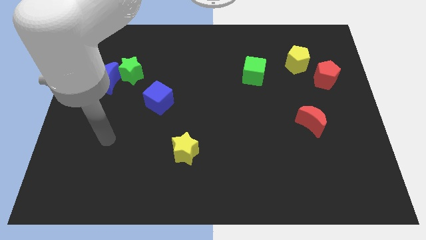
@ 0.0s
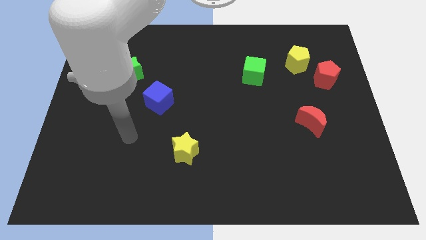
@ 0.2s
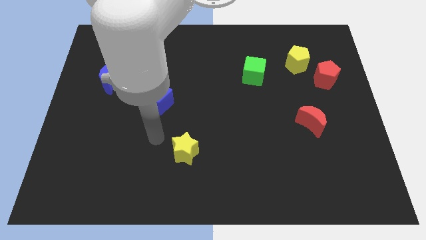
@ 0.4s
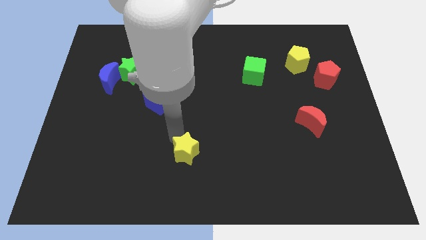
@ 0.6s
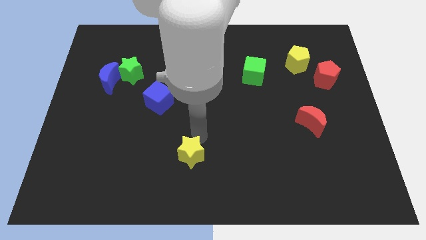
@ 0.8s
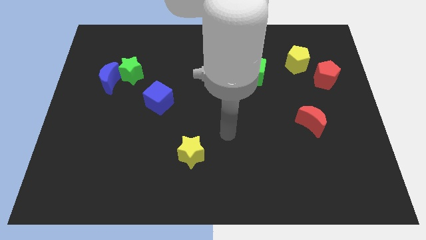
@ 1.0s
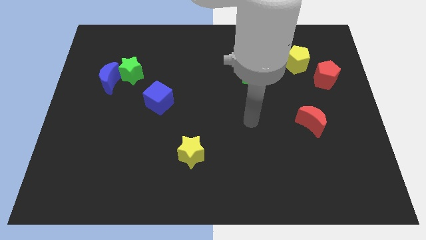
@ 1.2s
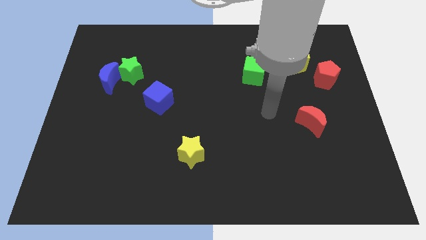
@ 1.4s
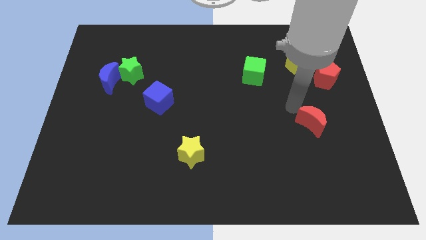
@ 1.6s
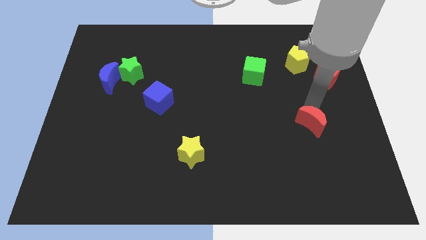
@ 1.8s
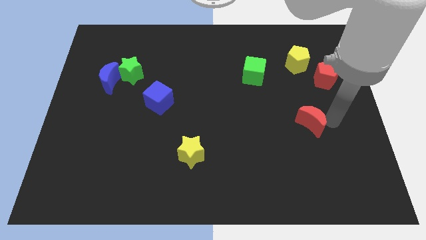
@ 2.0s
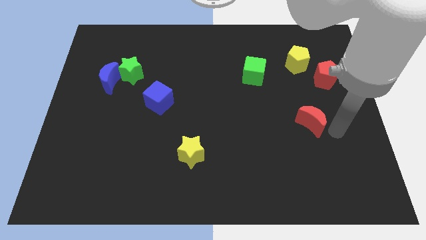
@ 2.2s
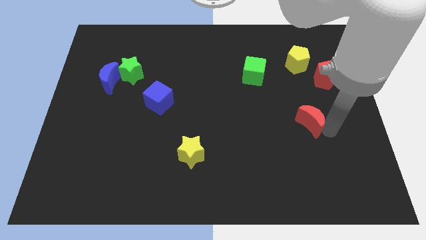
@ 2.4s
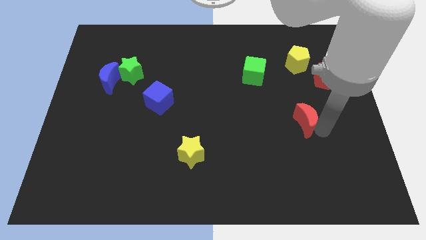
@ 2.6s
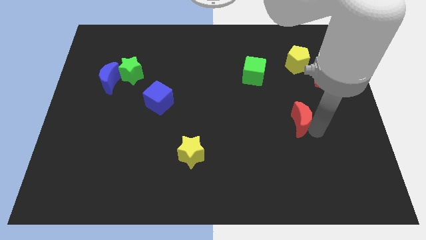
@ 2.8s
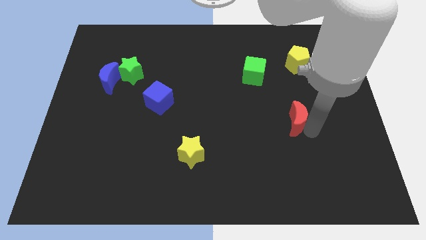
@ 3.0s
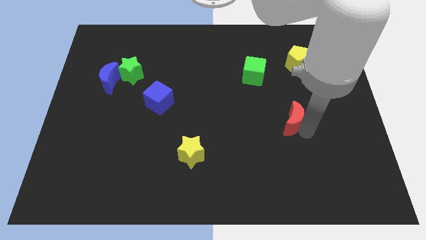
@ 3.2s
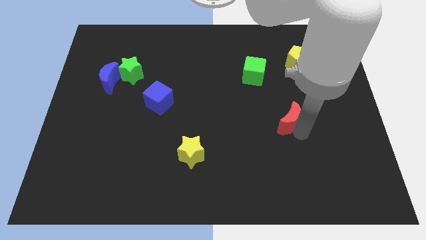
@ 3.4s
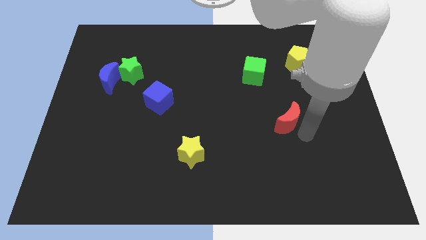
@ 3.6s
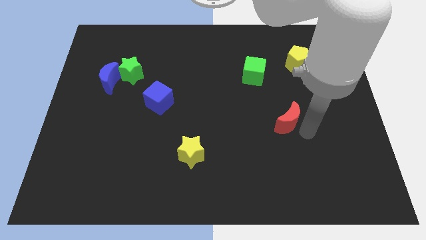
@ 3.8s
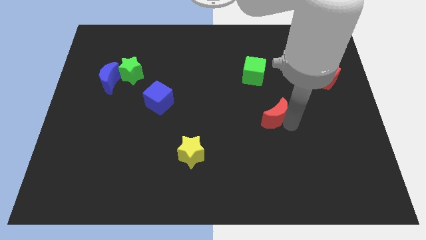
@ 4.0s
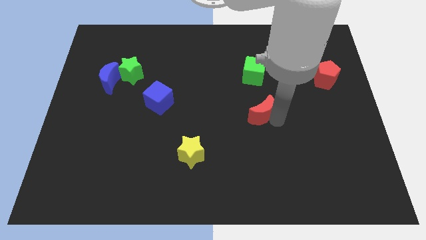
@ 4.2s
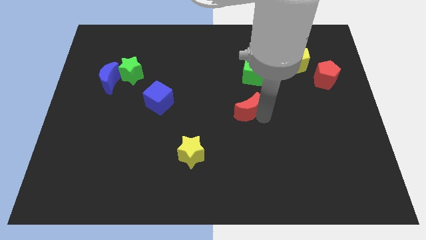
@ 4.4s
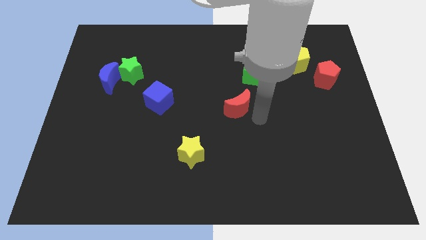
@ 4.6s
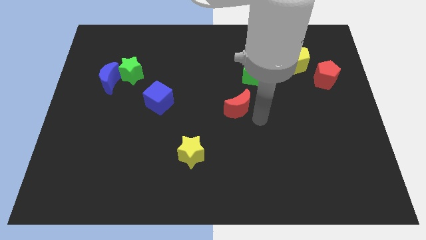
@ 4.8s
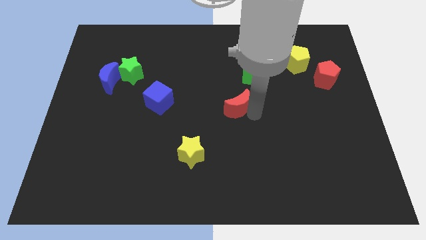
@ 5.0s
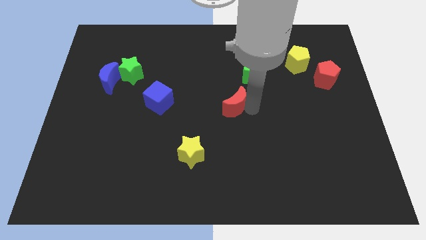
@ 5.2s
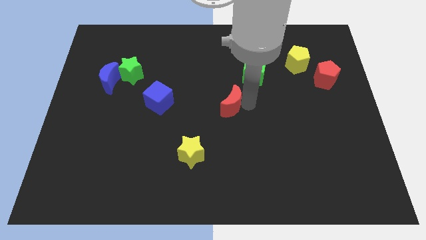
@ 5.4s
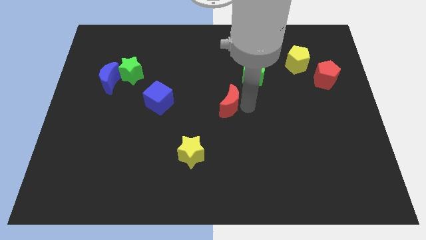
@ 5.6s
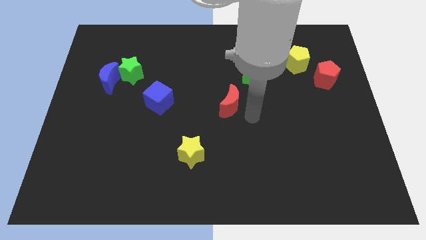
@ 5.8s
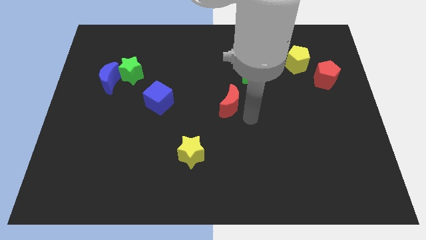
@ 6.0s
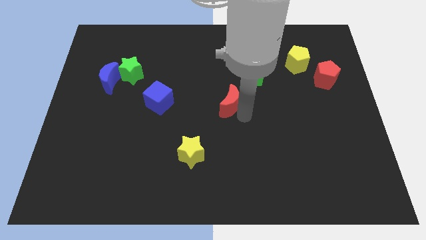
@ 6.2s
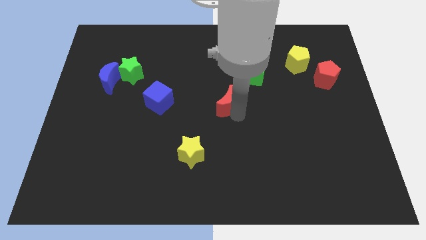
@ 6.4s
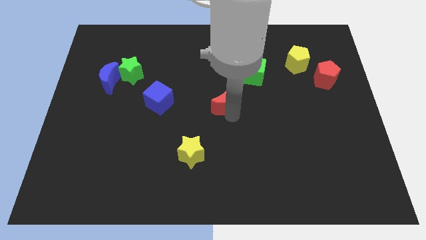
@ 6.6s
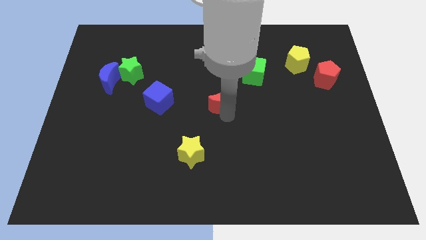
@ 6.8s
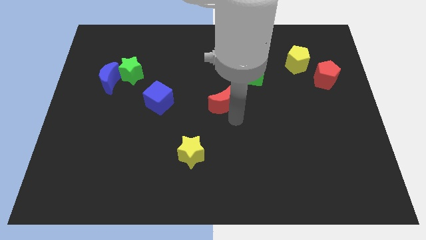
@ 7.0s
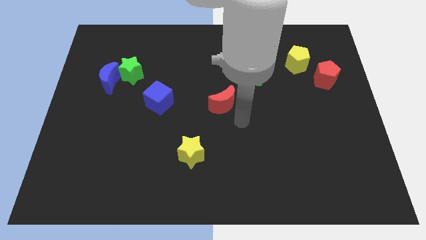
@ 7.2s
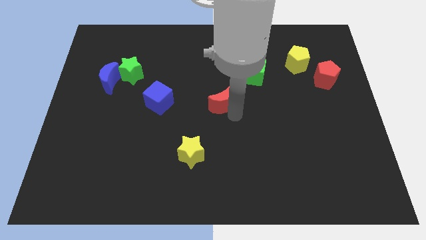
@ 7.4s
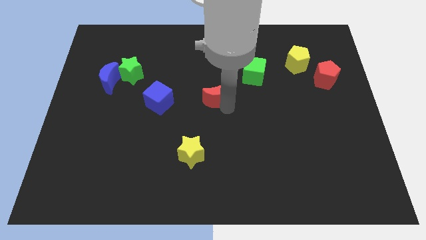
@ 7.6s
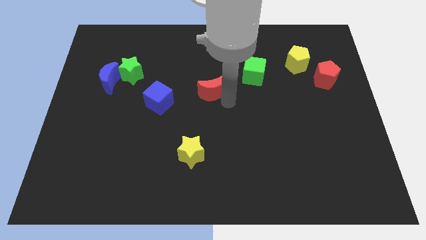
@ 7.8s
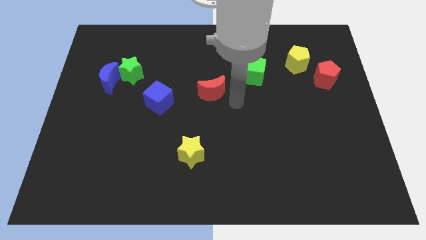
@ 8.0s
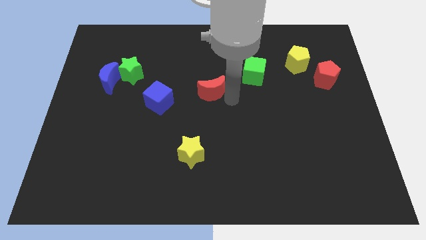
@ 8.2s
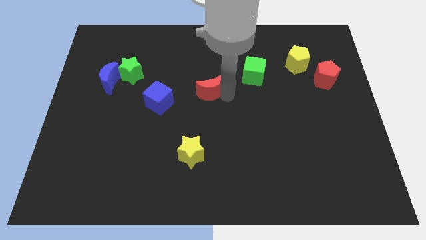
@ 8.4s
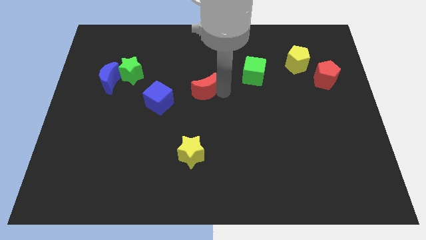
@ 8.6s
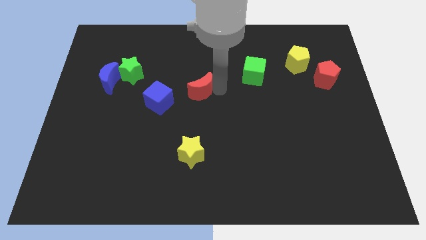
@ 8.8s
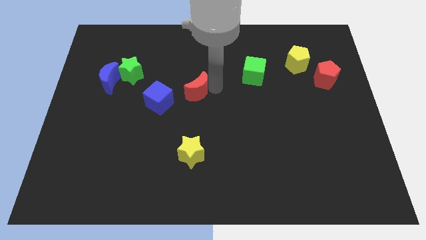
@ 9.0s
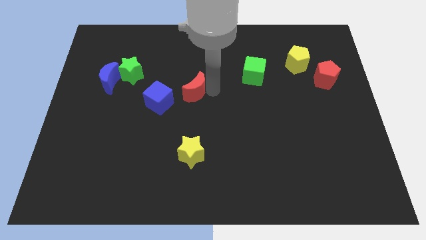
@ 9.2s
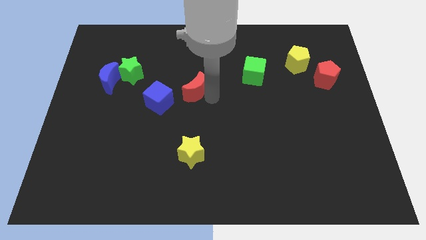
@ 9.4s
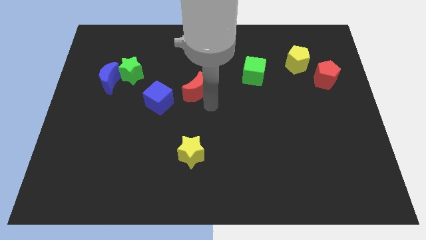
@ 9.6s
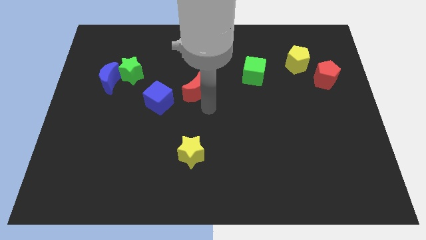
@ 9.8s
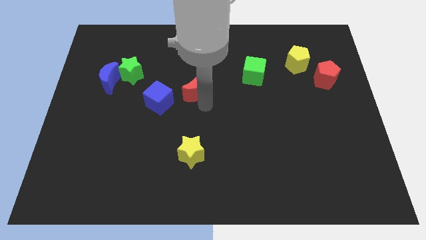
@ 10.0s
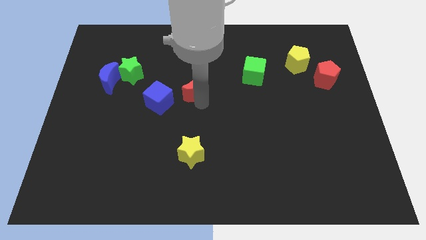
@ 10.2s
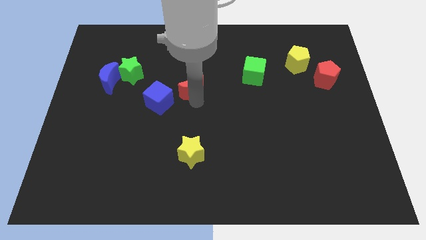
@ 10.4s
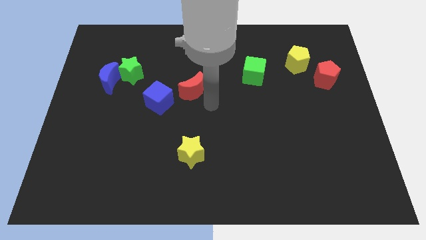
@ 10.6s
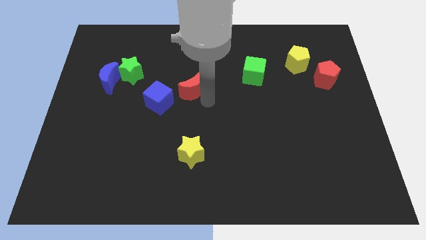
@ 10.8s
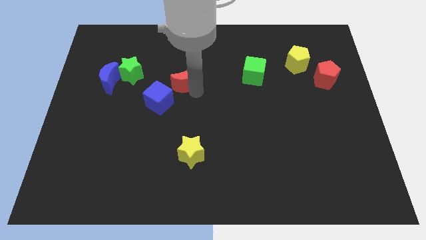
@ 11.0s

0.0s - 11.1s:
slide the red moon to the right side of the green star

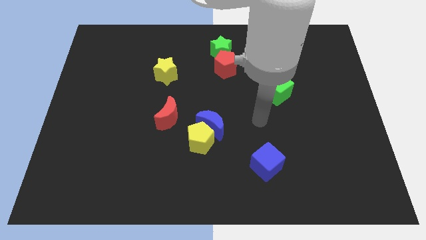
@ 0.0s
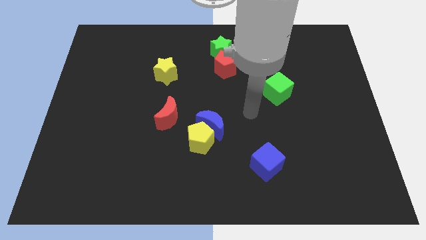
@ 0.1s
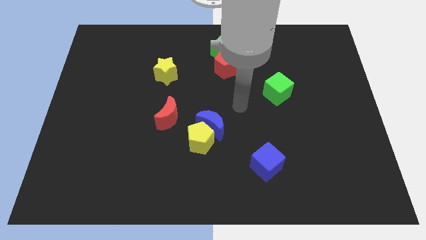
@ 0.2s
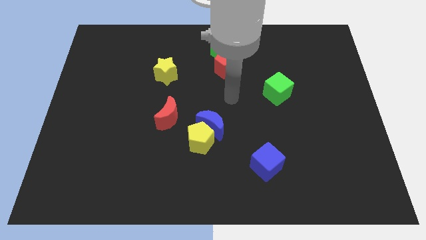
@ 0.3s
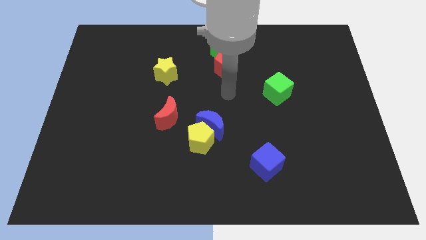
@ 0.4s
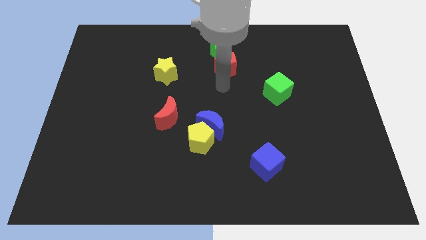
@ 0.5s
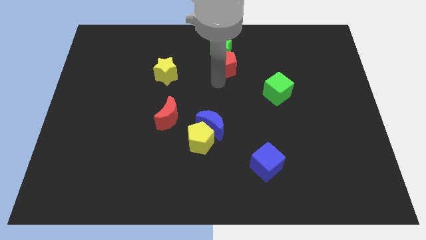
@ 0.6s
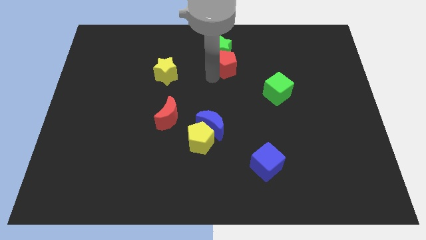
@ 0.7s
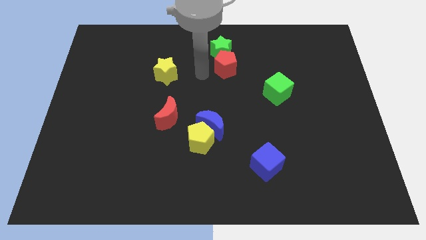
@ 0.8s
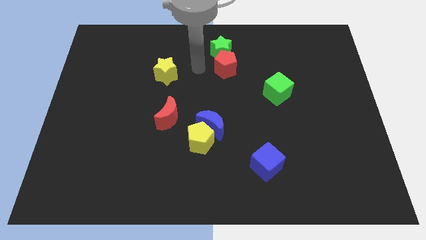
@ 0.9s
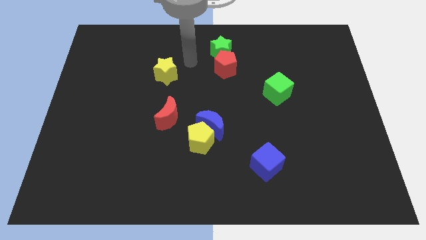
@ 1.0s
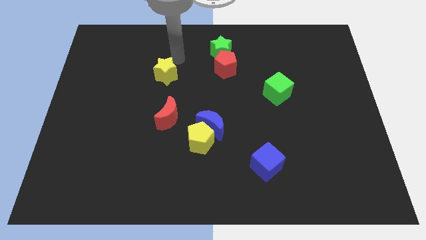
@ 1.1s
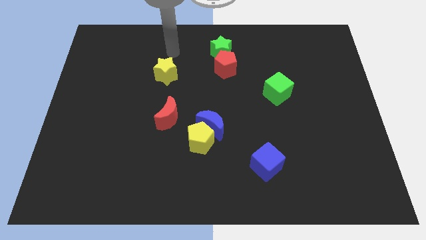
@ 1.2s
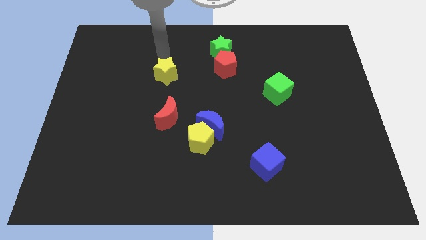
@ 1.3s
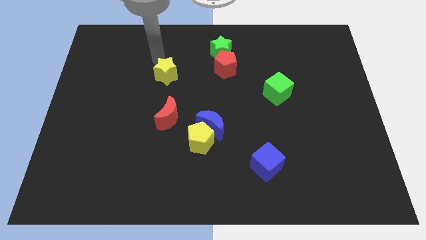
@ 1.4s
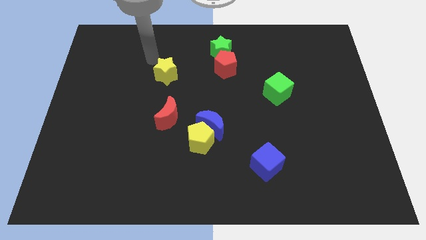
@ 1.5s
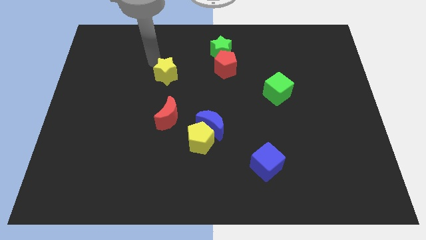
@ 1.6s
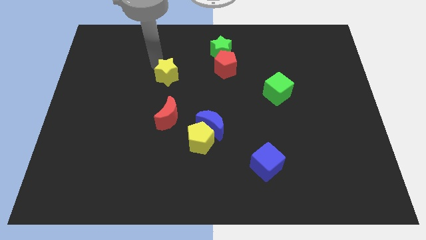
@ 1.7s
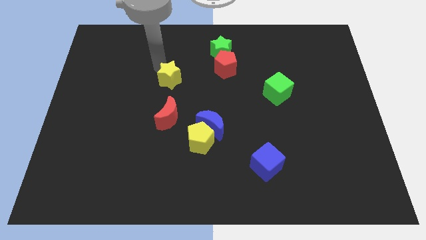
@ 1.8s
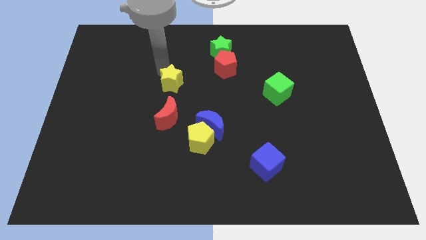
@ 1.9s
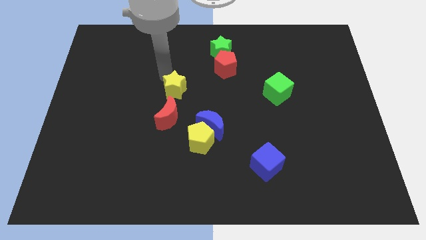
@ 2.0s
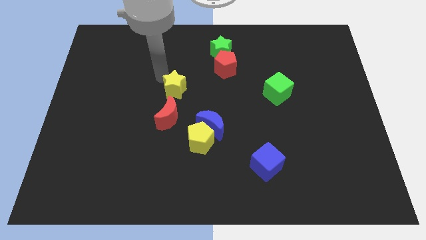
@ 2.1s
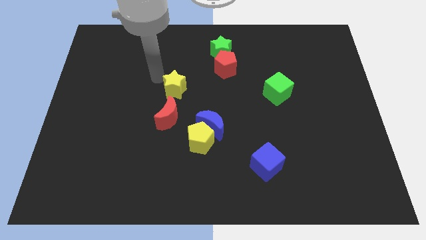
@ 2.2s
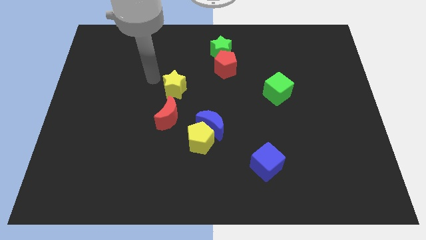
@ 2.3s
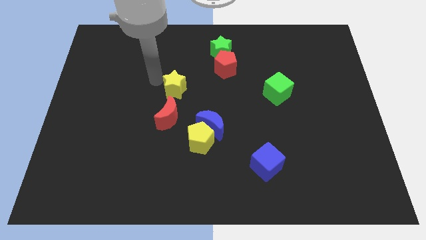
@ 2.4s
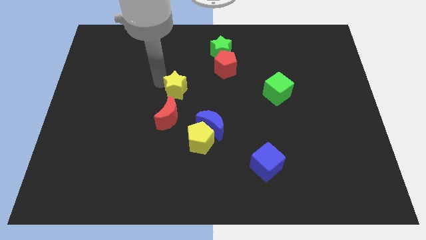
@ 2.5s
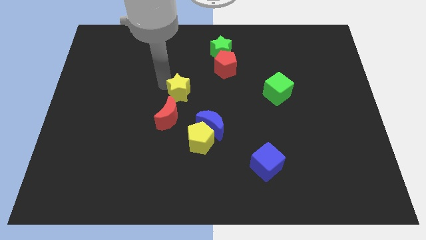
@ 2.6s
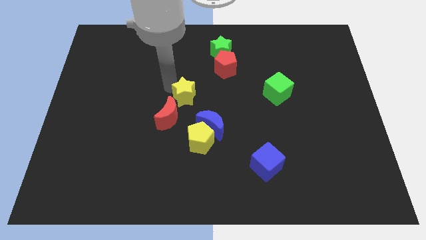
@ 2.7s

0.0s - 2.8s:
slide the yellow star above the yellow pentagon
